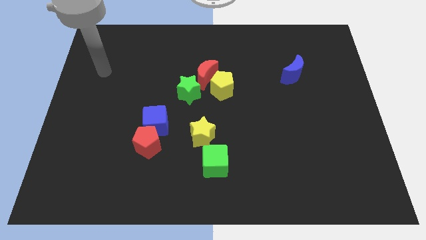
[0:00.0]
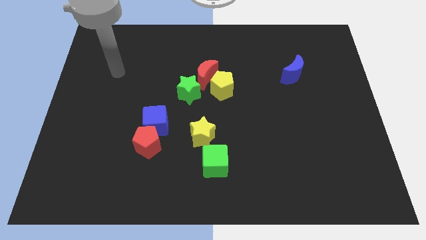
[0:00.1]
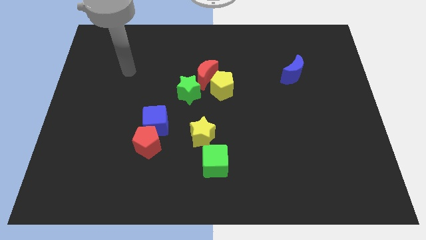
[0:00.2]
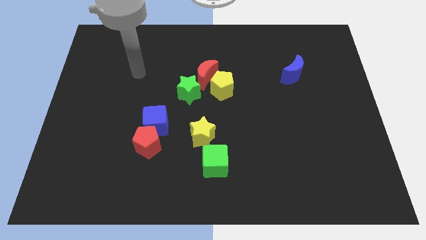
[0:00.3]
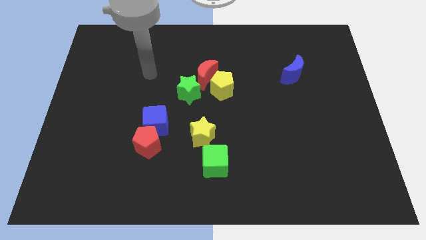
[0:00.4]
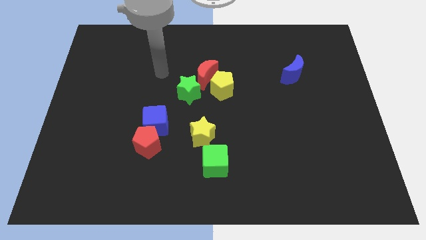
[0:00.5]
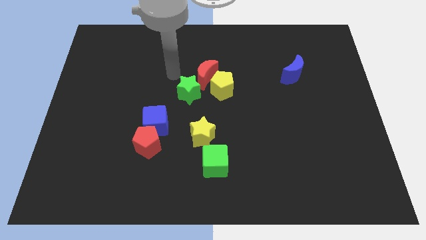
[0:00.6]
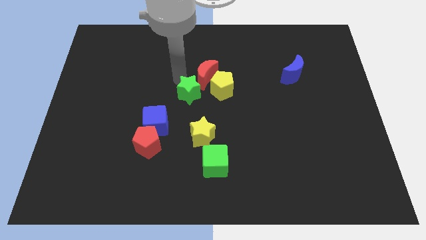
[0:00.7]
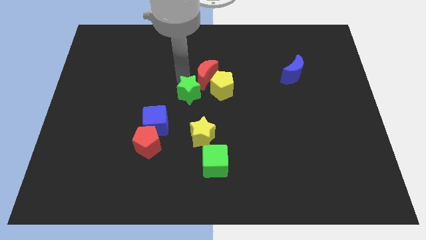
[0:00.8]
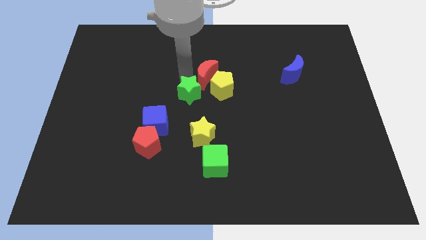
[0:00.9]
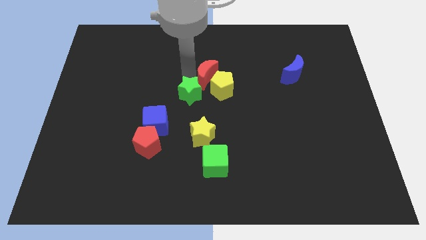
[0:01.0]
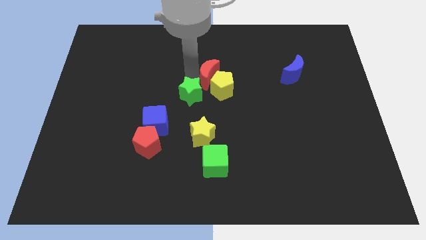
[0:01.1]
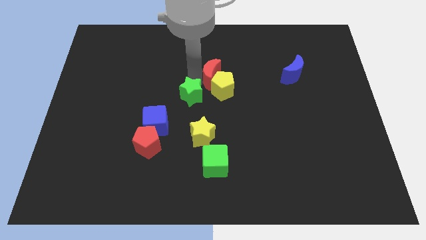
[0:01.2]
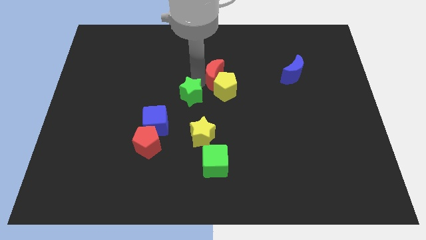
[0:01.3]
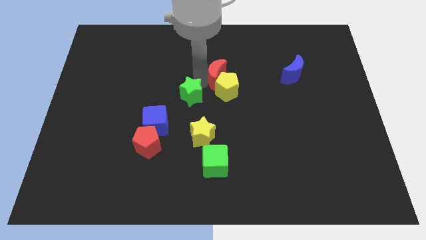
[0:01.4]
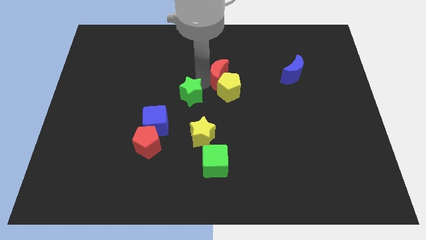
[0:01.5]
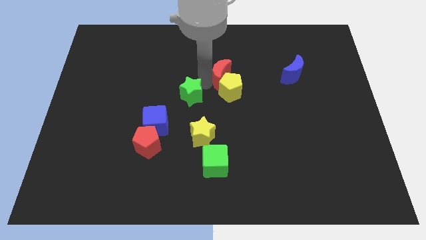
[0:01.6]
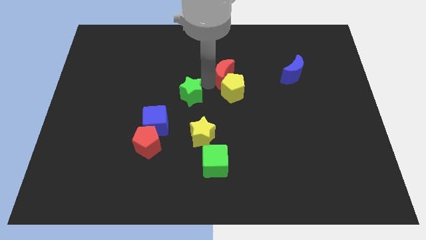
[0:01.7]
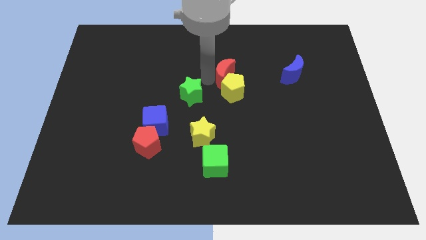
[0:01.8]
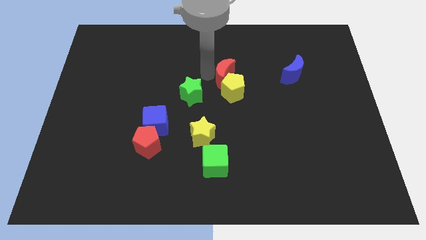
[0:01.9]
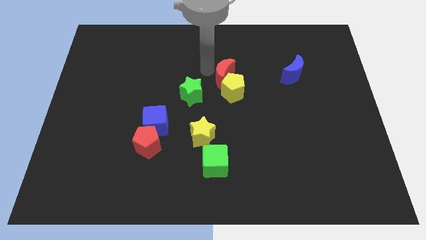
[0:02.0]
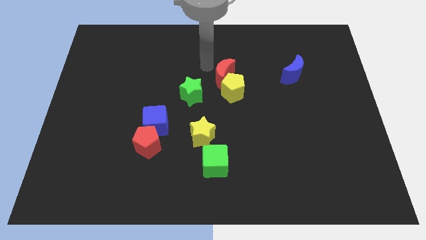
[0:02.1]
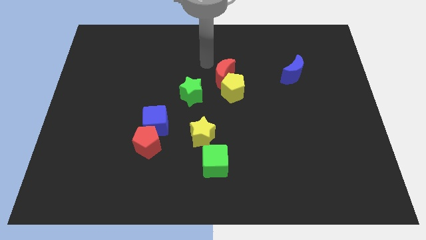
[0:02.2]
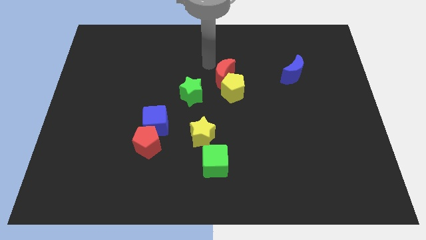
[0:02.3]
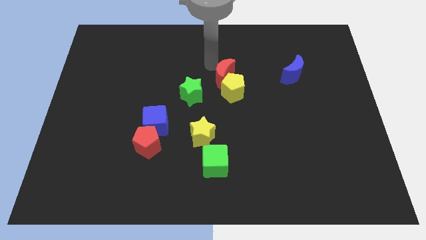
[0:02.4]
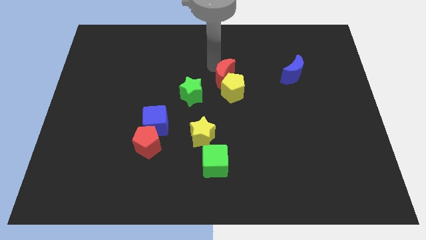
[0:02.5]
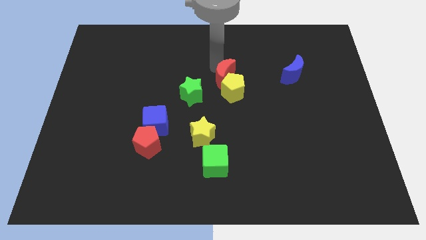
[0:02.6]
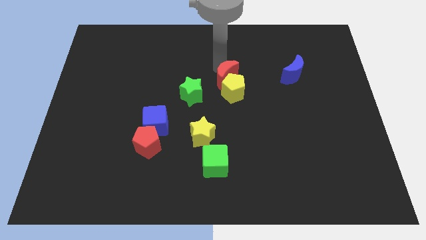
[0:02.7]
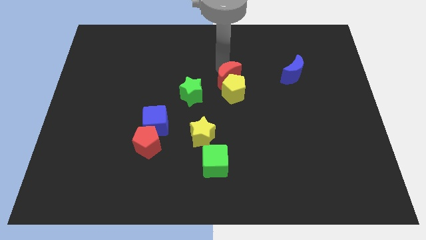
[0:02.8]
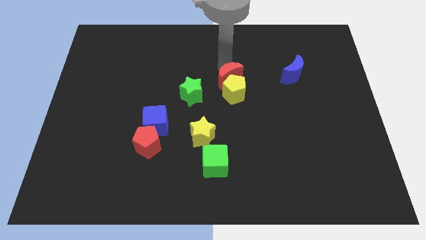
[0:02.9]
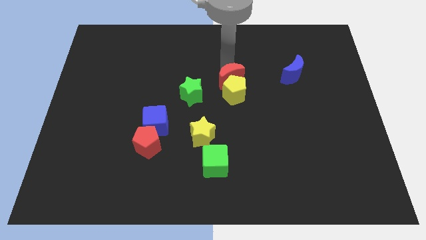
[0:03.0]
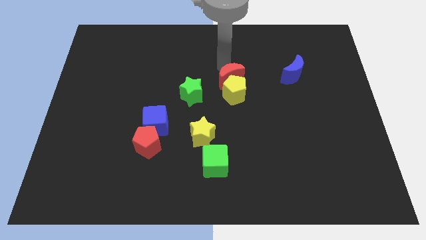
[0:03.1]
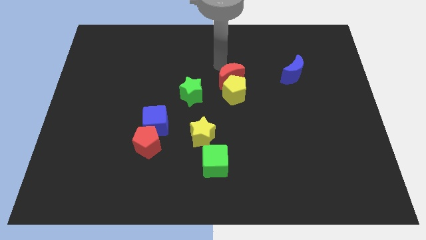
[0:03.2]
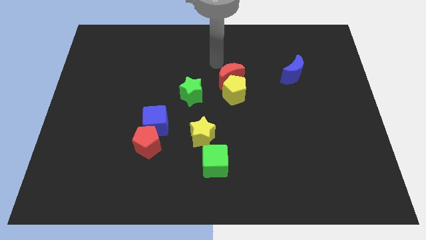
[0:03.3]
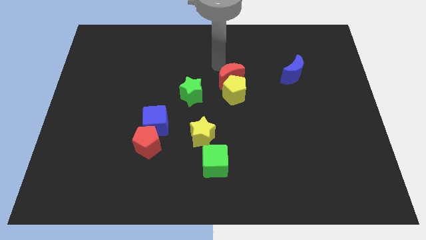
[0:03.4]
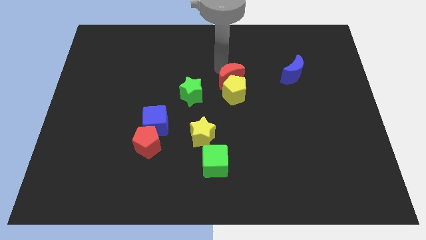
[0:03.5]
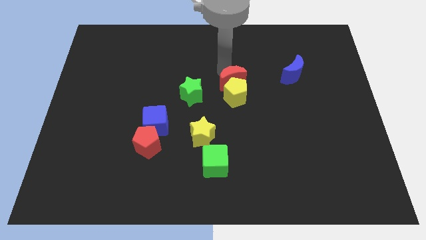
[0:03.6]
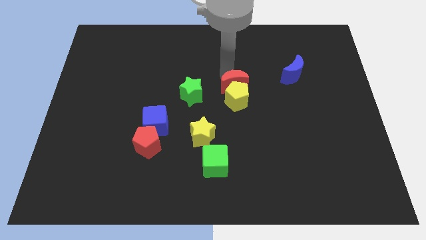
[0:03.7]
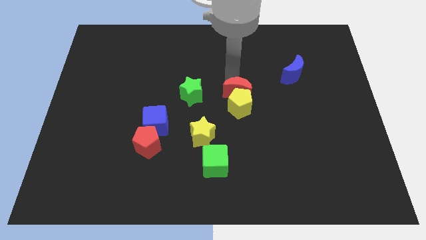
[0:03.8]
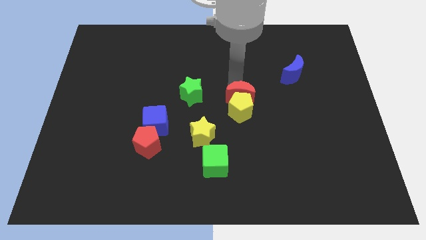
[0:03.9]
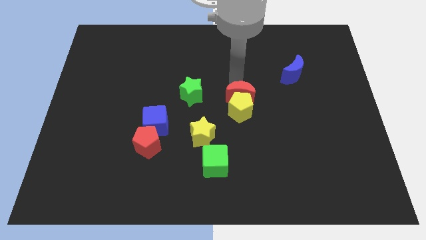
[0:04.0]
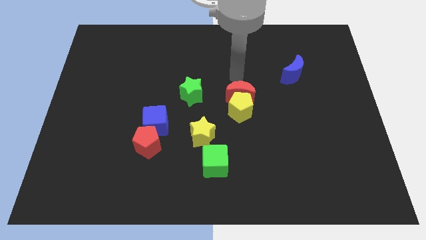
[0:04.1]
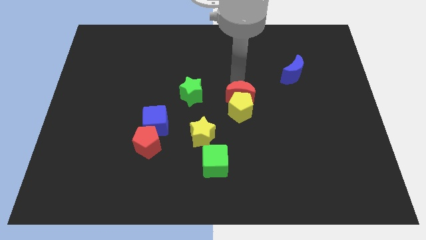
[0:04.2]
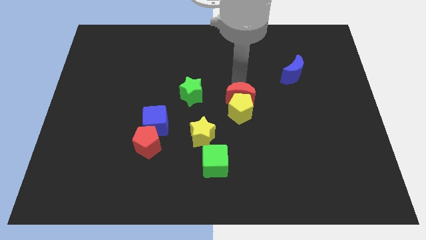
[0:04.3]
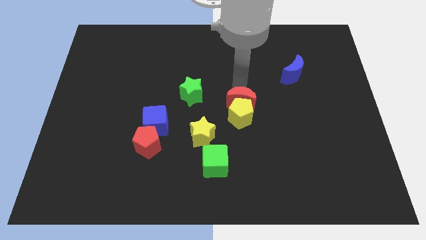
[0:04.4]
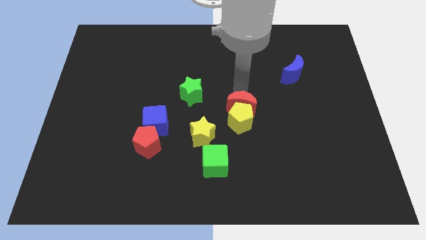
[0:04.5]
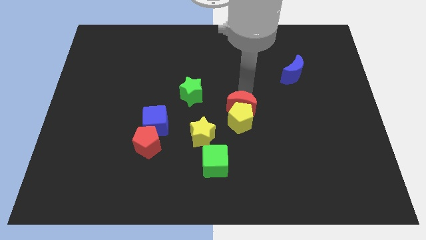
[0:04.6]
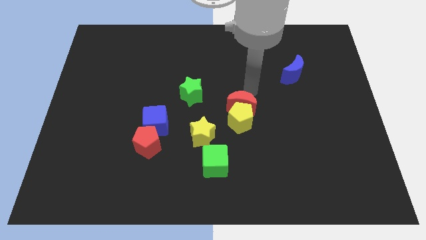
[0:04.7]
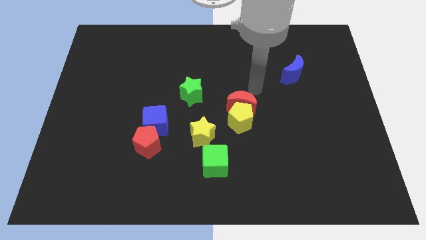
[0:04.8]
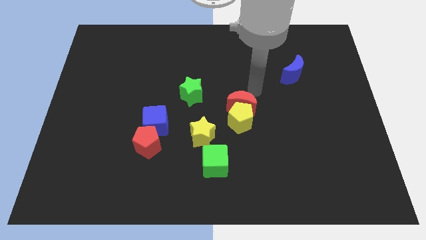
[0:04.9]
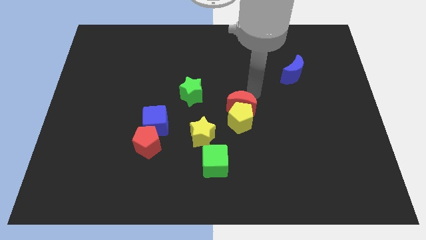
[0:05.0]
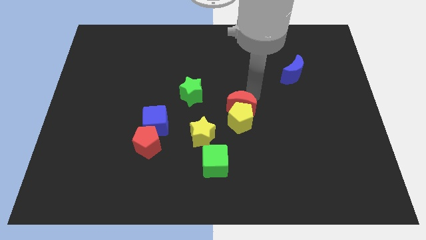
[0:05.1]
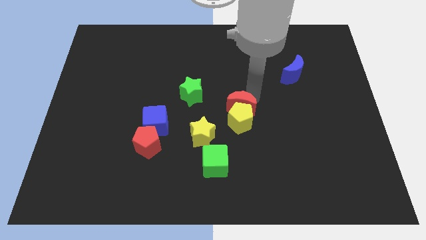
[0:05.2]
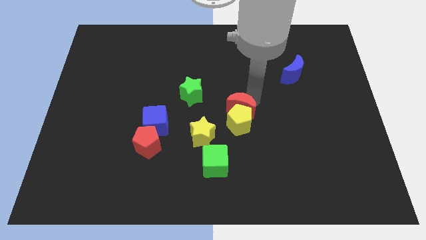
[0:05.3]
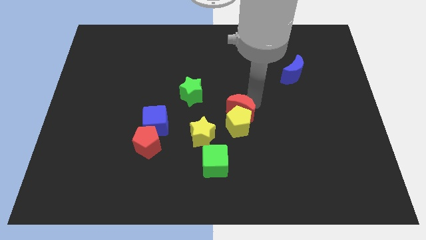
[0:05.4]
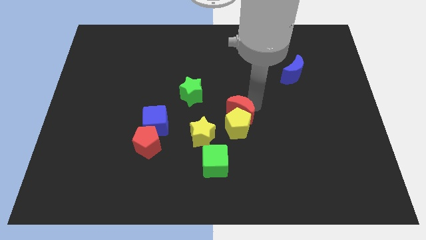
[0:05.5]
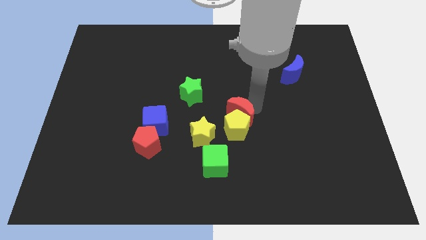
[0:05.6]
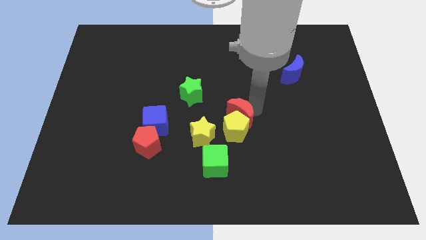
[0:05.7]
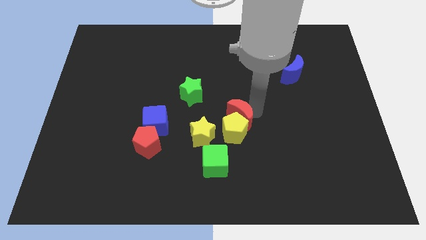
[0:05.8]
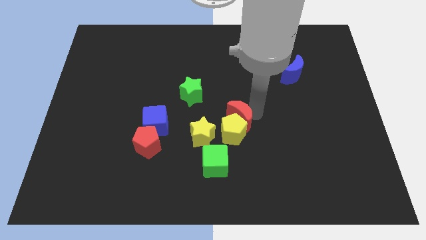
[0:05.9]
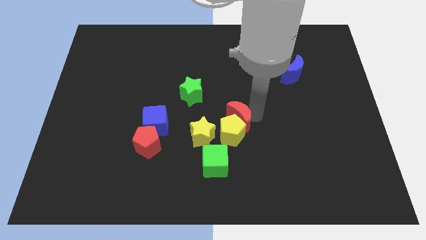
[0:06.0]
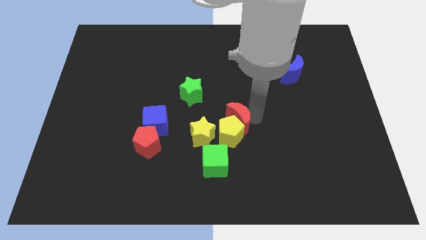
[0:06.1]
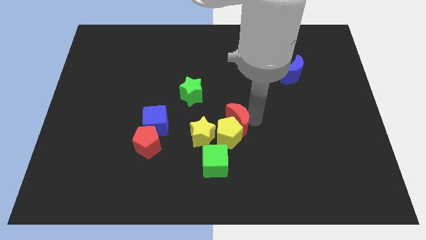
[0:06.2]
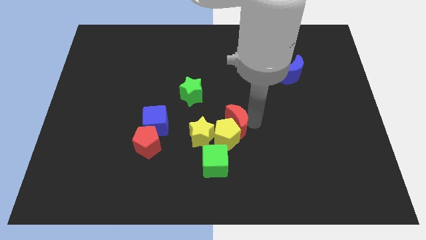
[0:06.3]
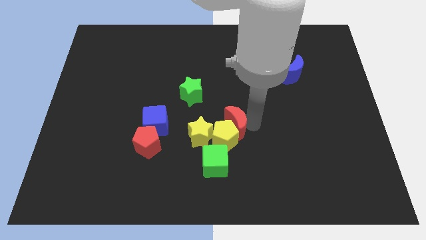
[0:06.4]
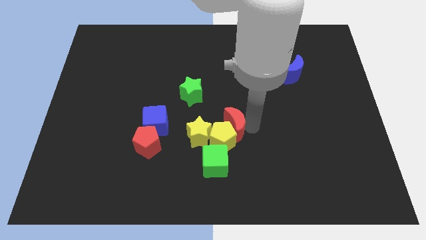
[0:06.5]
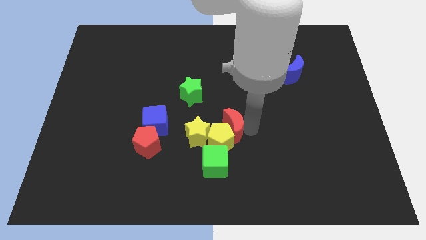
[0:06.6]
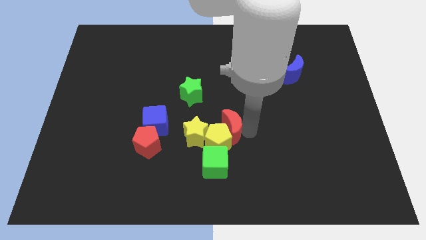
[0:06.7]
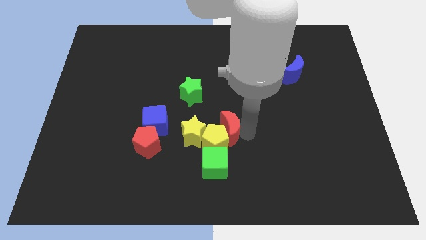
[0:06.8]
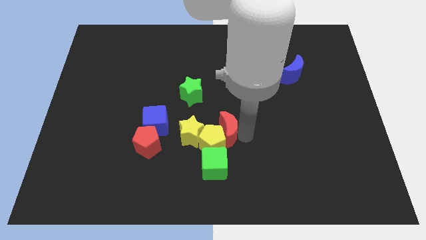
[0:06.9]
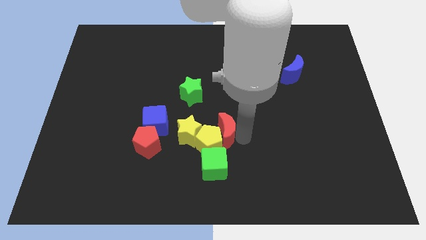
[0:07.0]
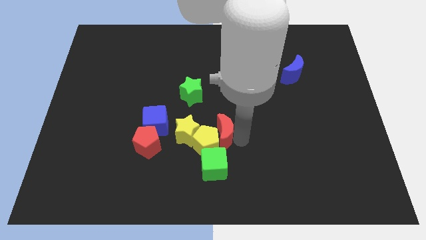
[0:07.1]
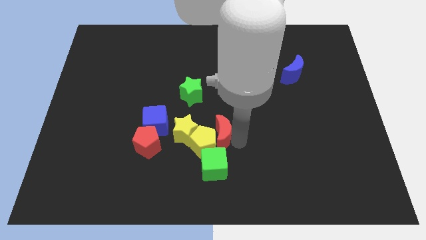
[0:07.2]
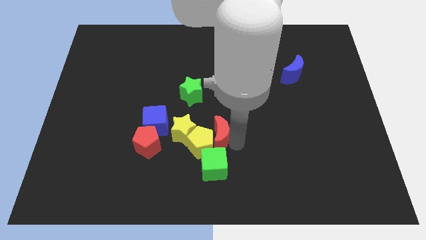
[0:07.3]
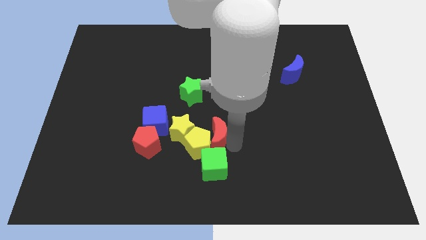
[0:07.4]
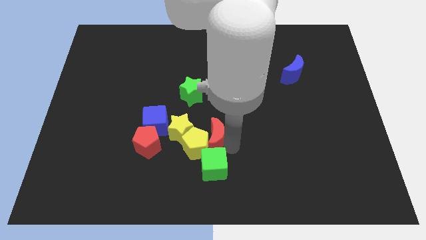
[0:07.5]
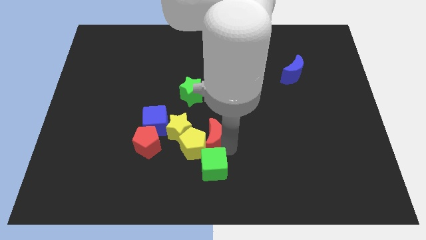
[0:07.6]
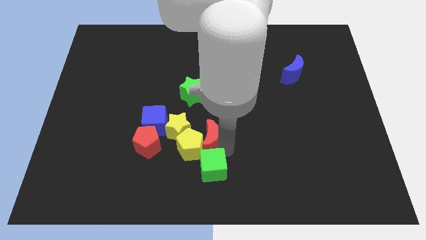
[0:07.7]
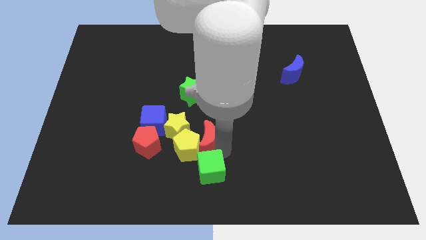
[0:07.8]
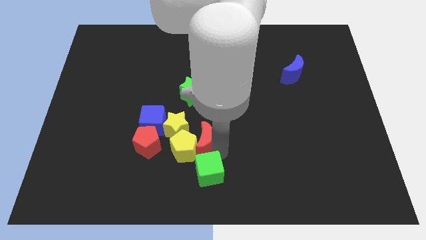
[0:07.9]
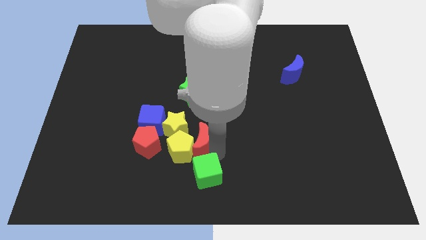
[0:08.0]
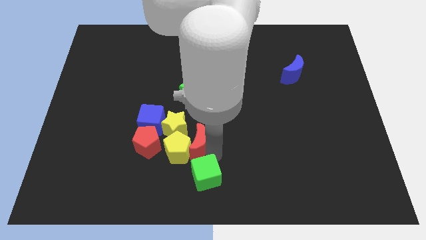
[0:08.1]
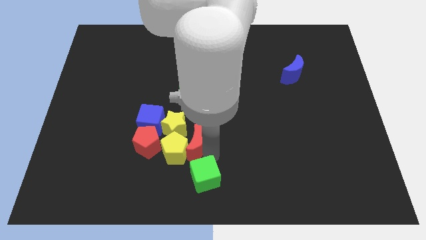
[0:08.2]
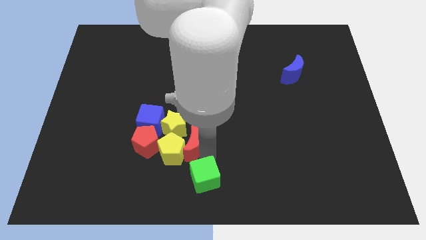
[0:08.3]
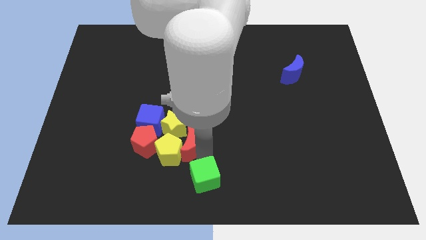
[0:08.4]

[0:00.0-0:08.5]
push the red moon to the yellow star
